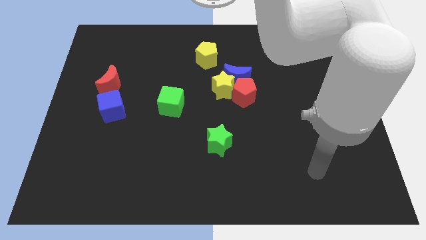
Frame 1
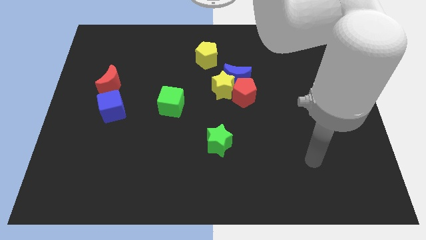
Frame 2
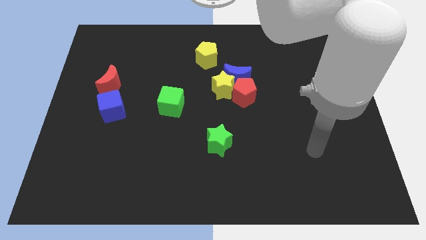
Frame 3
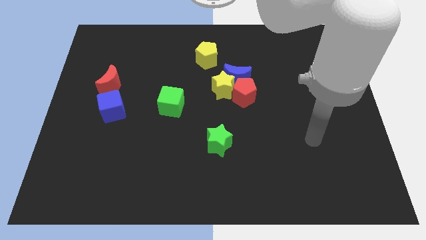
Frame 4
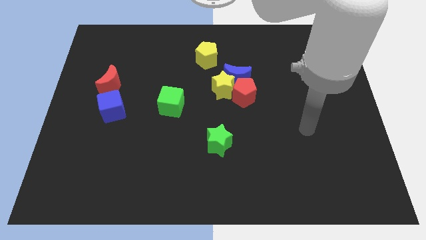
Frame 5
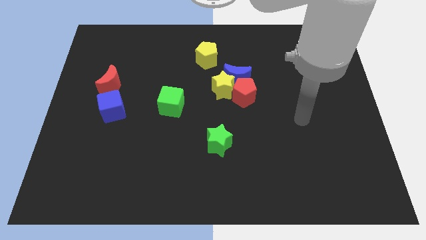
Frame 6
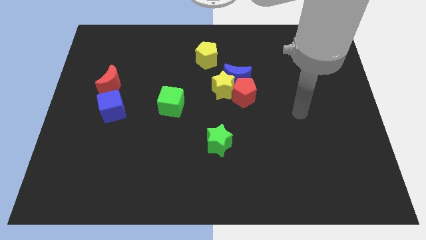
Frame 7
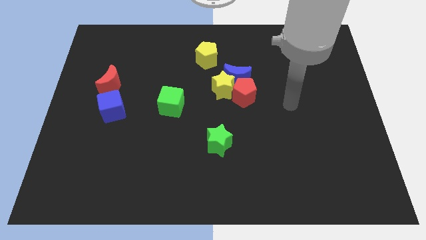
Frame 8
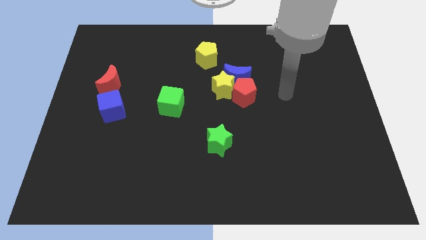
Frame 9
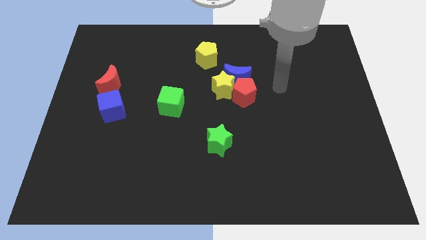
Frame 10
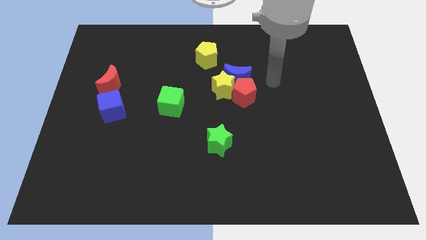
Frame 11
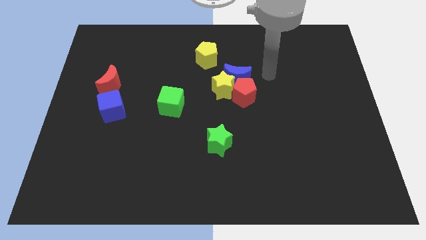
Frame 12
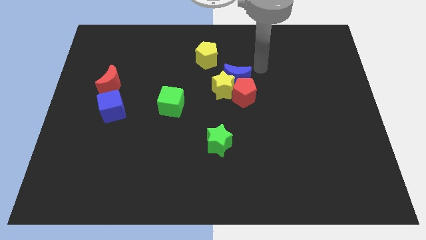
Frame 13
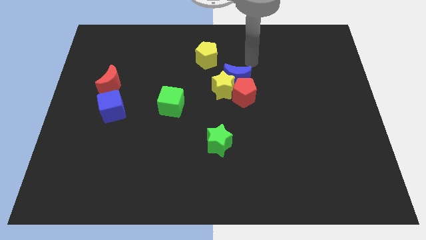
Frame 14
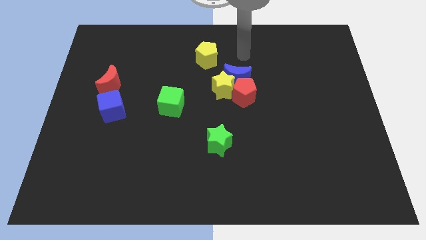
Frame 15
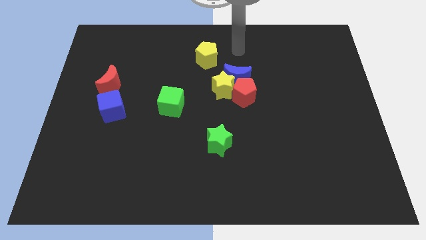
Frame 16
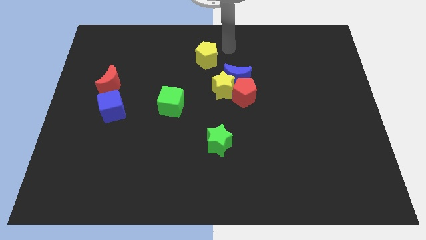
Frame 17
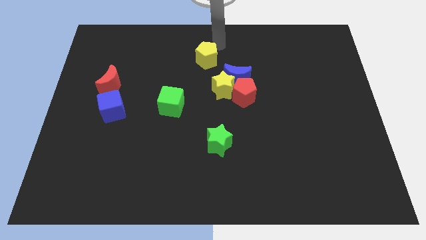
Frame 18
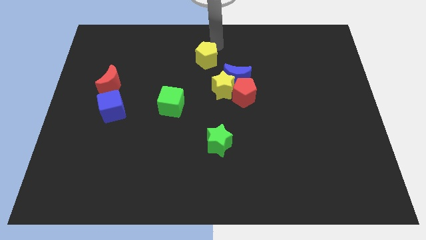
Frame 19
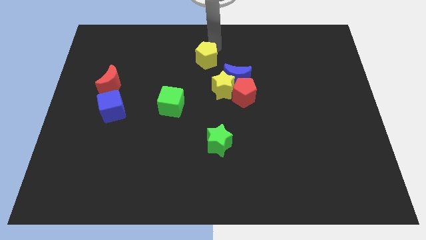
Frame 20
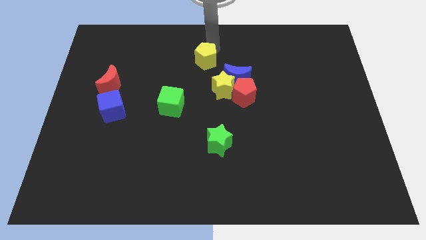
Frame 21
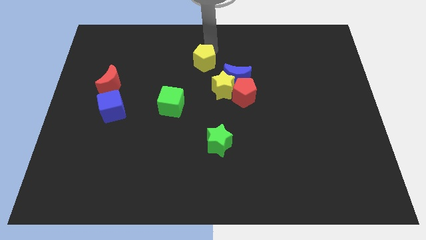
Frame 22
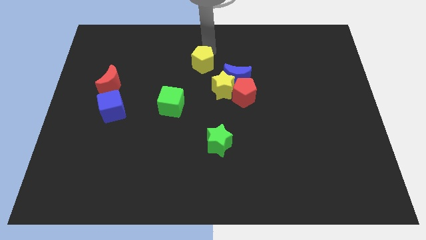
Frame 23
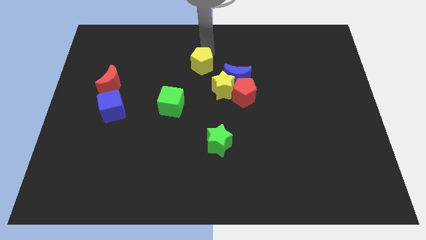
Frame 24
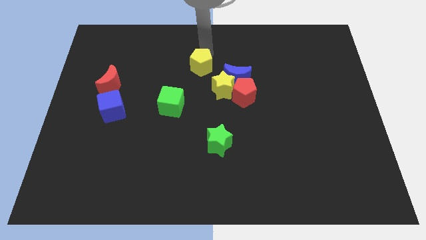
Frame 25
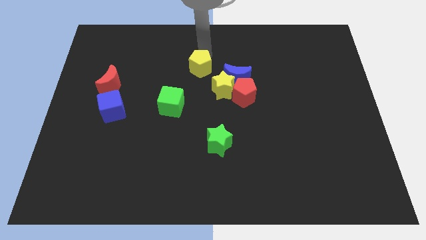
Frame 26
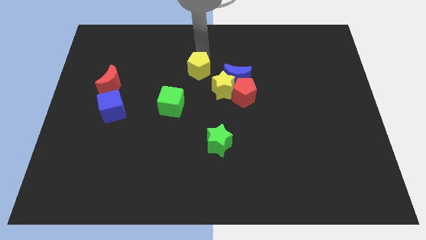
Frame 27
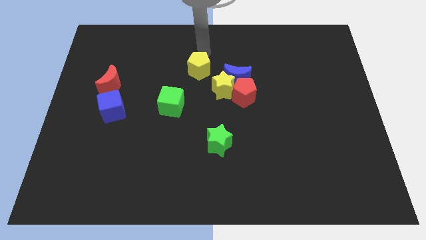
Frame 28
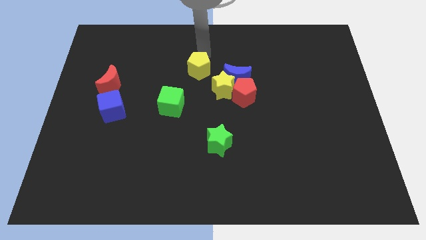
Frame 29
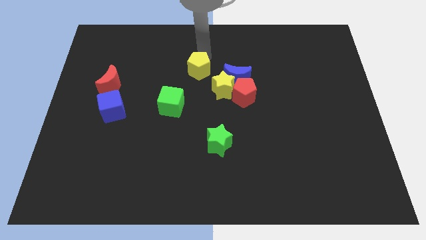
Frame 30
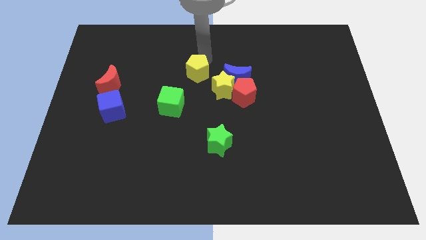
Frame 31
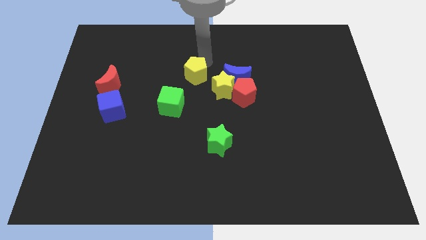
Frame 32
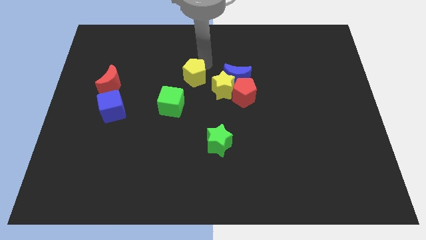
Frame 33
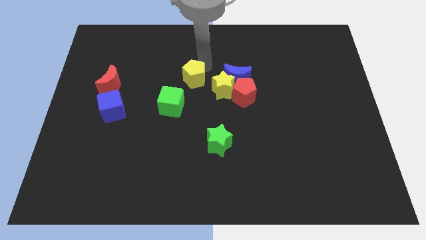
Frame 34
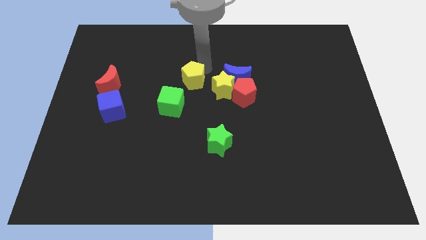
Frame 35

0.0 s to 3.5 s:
slightly move the yellow pentagon down

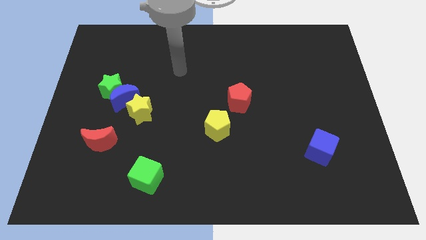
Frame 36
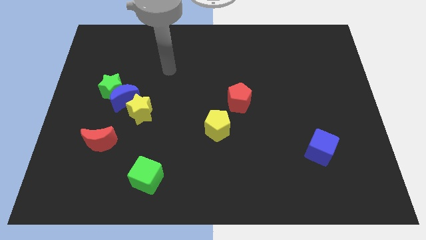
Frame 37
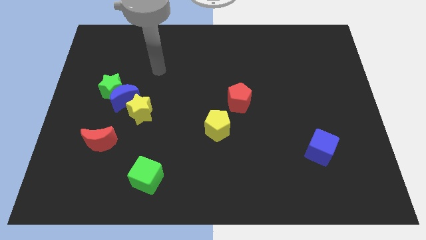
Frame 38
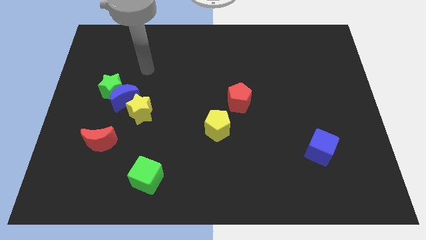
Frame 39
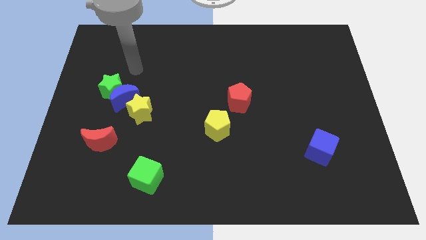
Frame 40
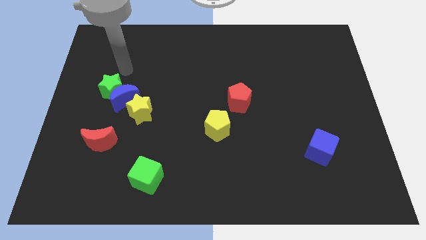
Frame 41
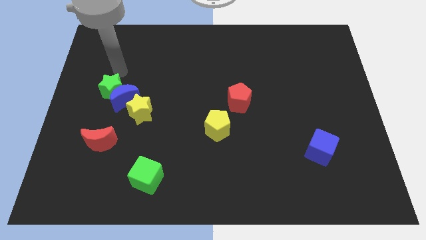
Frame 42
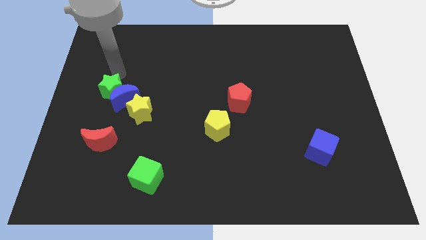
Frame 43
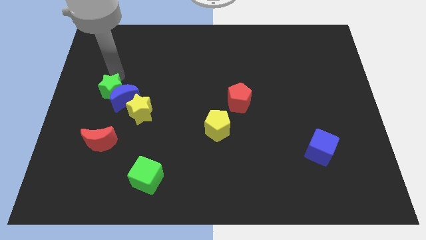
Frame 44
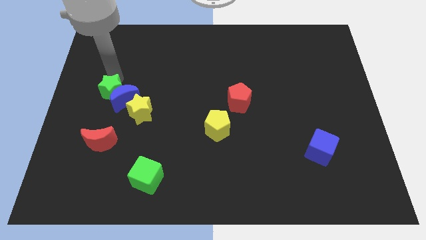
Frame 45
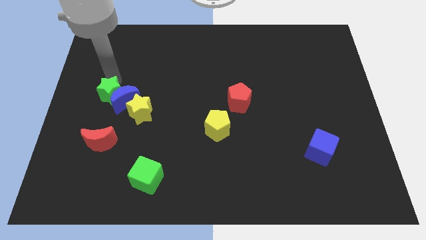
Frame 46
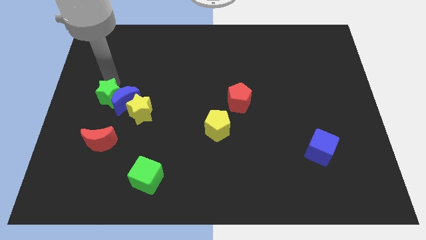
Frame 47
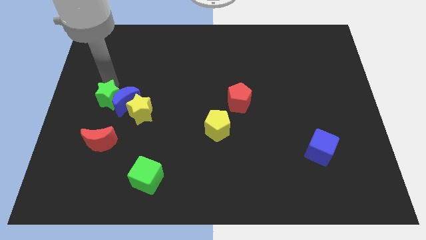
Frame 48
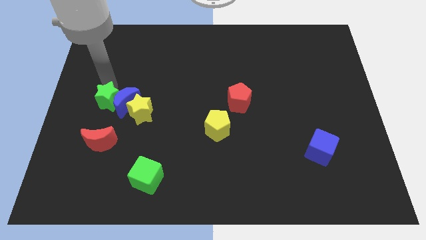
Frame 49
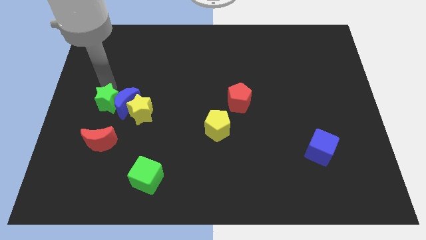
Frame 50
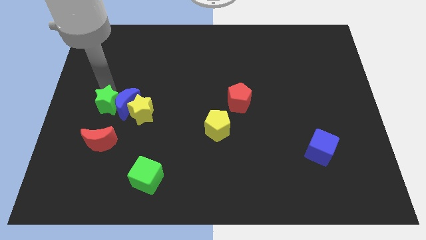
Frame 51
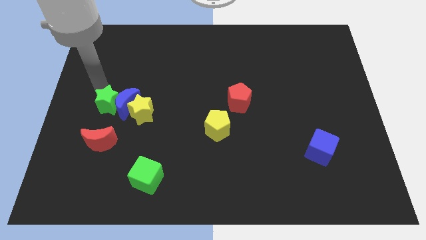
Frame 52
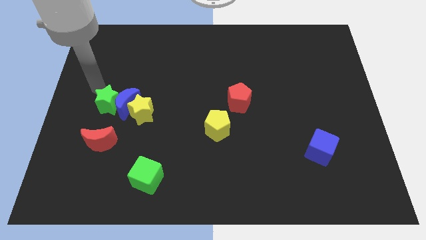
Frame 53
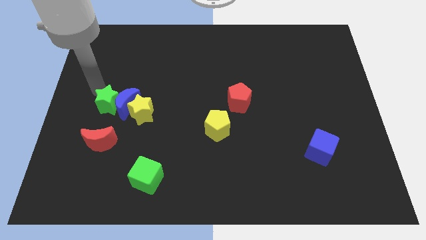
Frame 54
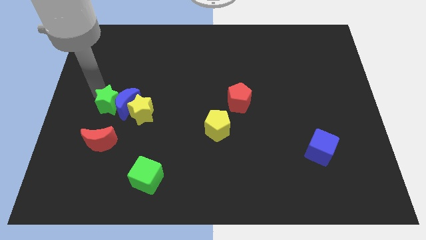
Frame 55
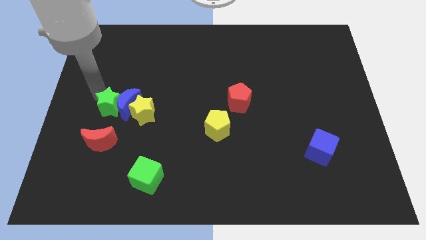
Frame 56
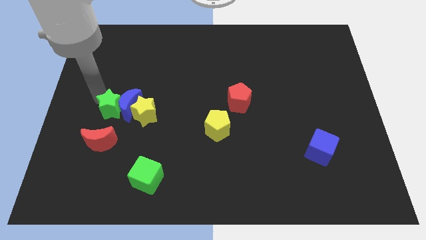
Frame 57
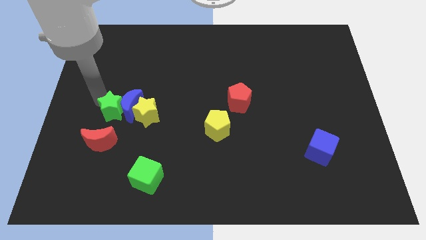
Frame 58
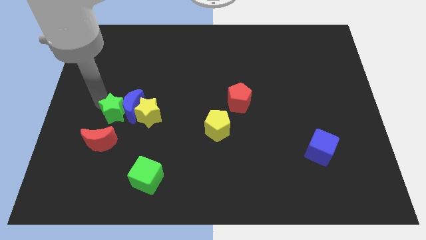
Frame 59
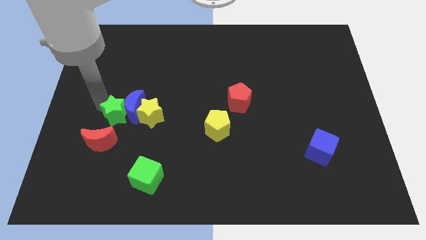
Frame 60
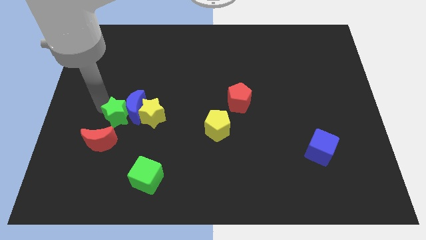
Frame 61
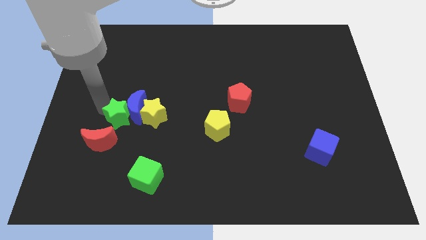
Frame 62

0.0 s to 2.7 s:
slightly slide the green star diagonally downwards and to the right

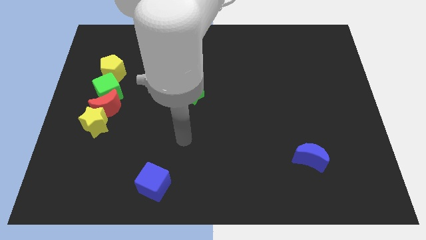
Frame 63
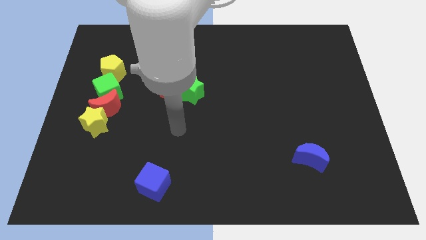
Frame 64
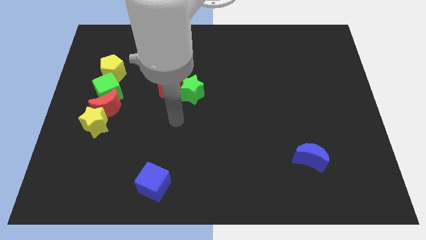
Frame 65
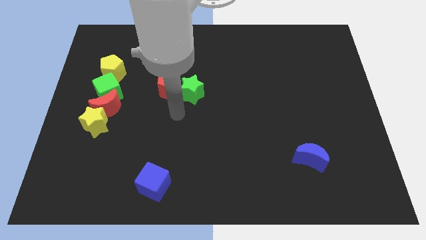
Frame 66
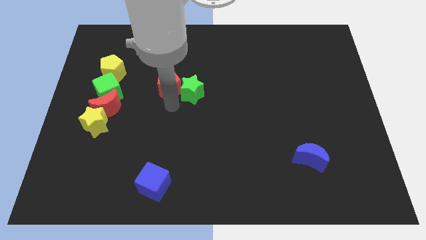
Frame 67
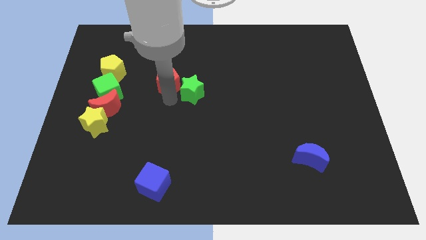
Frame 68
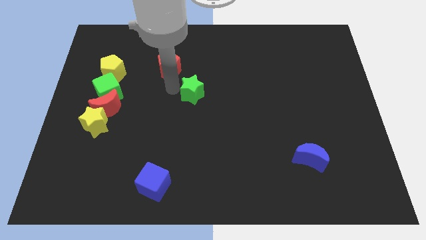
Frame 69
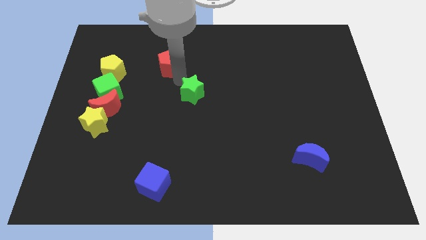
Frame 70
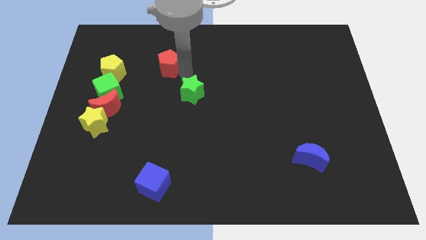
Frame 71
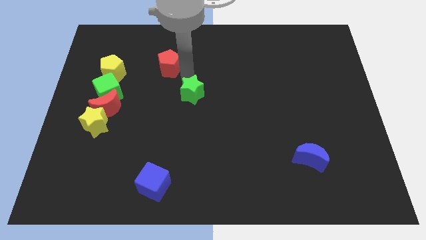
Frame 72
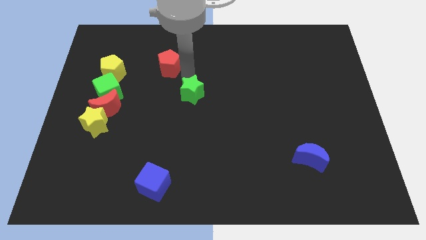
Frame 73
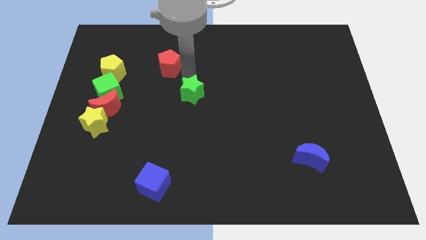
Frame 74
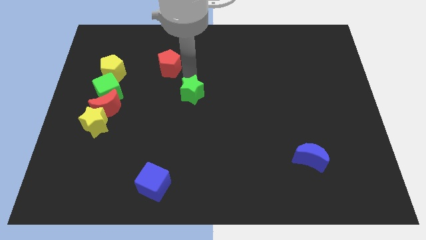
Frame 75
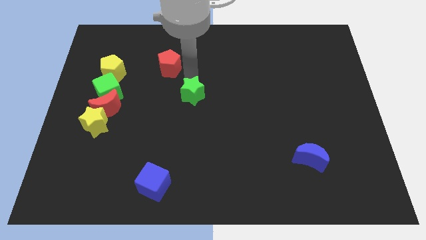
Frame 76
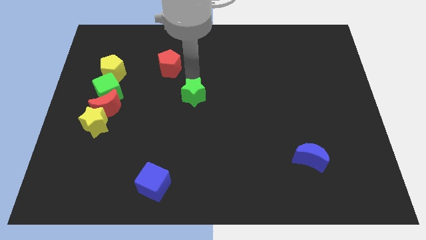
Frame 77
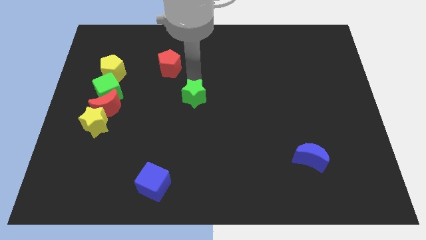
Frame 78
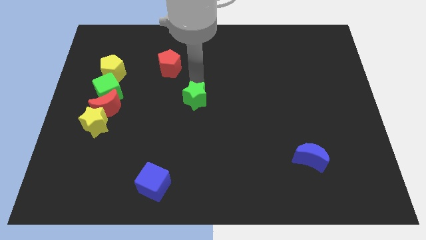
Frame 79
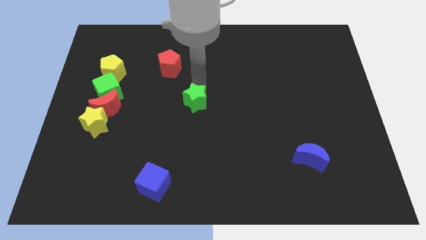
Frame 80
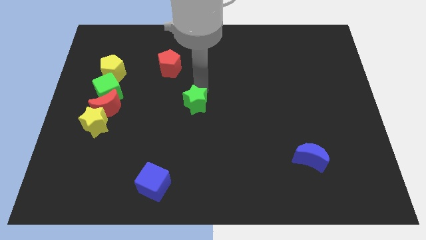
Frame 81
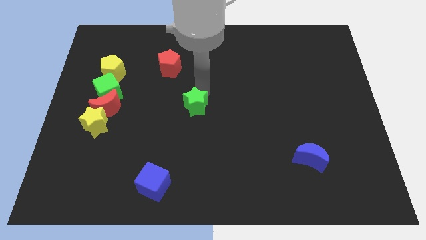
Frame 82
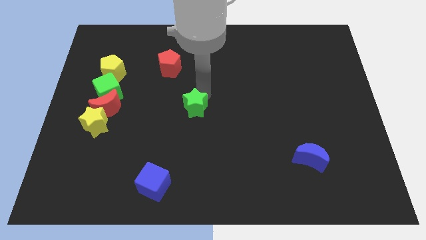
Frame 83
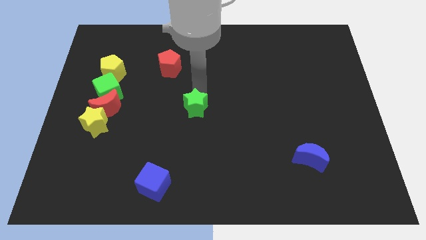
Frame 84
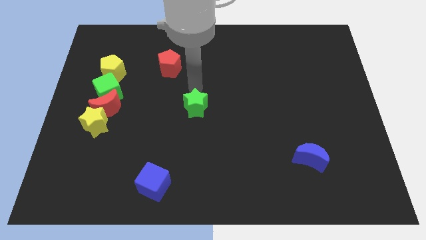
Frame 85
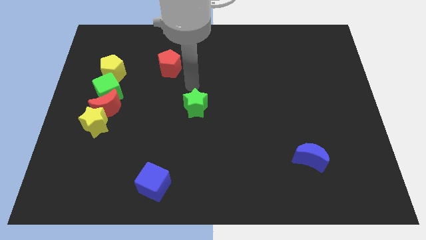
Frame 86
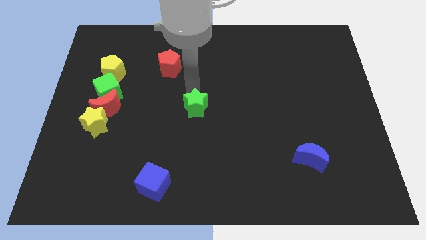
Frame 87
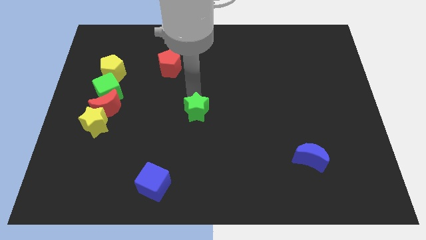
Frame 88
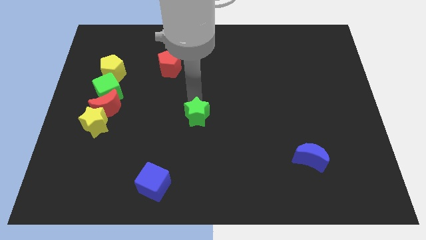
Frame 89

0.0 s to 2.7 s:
slightly move the green star downwards
